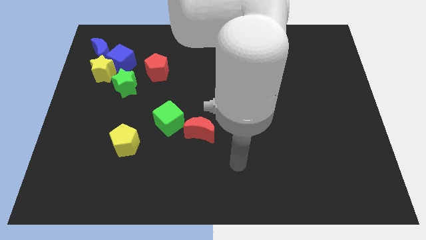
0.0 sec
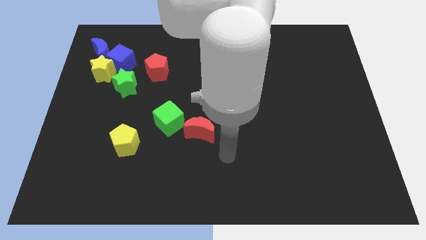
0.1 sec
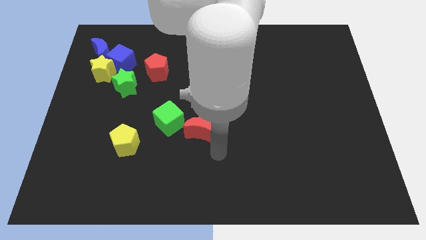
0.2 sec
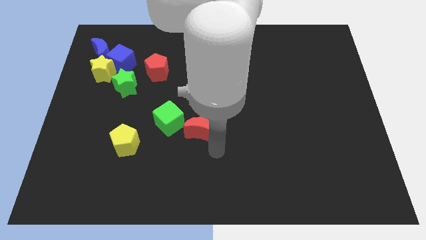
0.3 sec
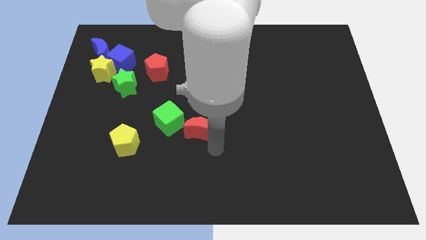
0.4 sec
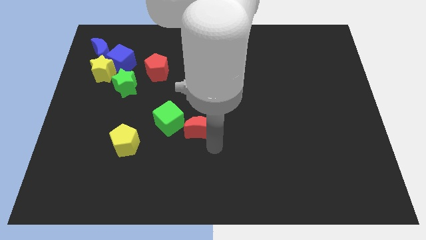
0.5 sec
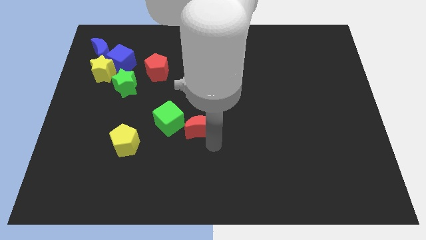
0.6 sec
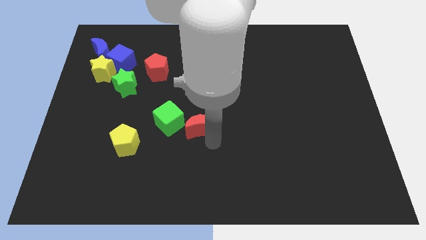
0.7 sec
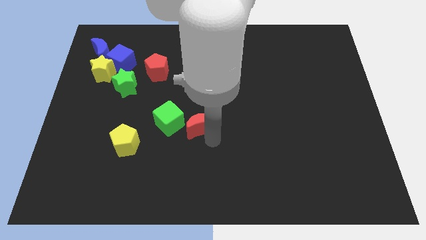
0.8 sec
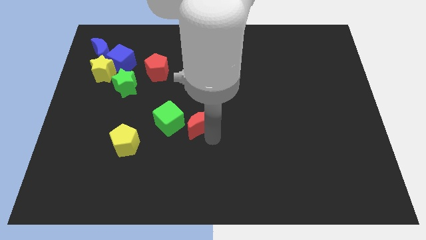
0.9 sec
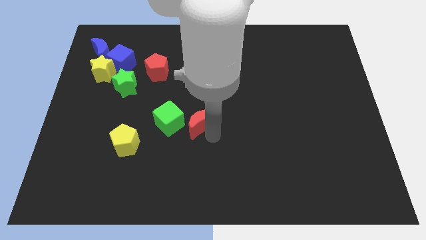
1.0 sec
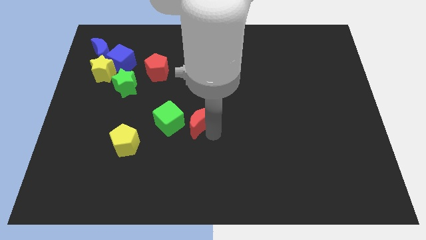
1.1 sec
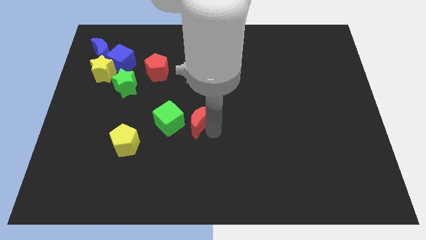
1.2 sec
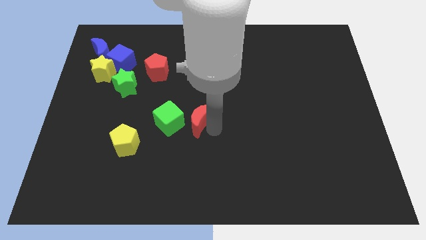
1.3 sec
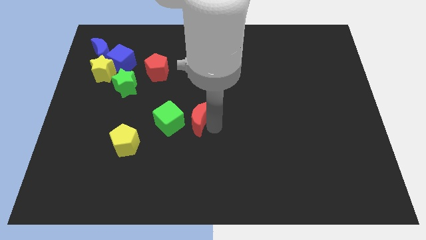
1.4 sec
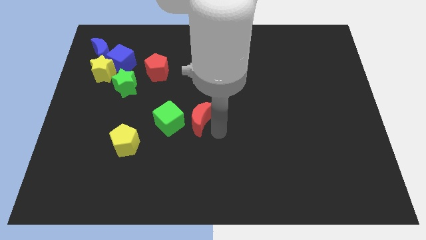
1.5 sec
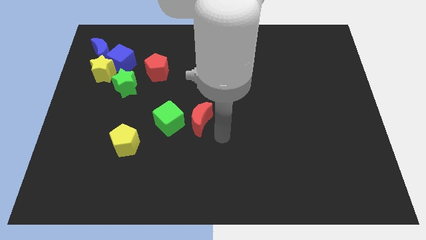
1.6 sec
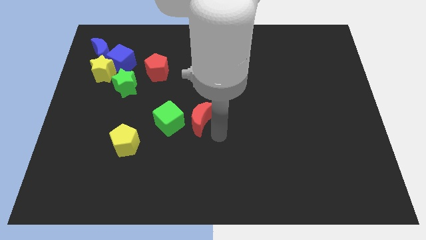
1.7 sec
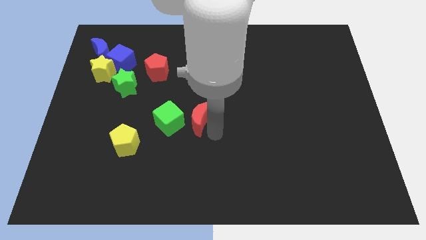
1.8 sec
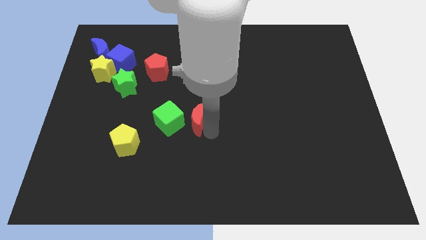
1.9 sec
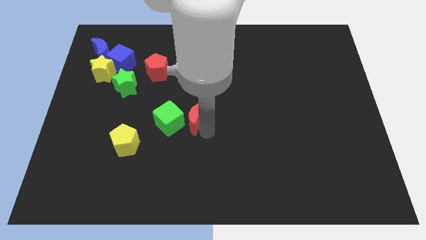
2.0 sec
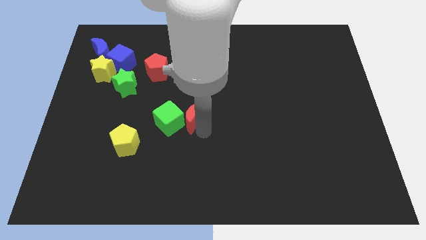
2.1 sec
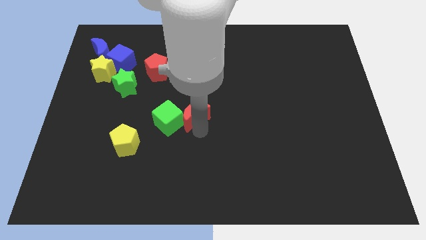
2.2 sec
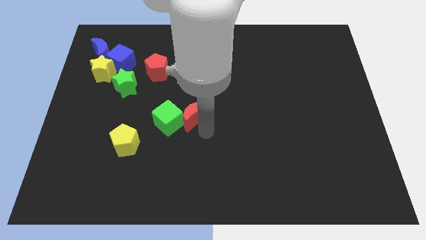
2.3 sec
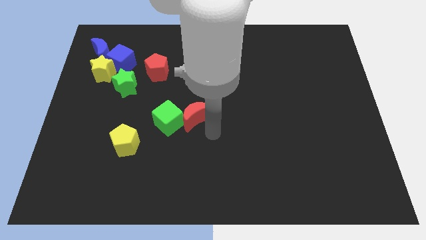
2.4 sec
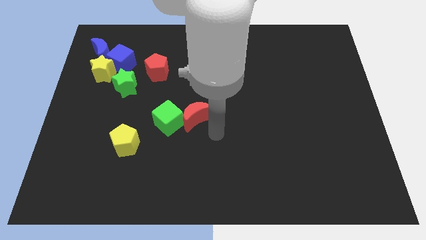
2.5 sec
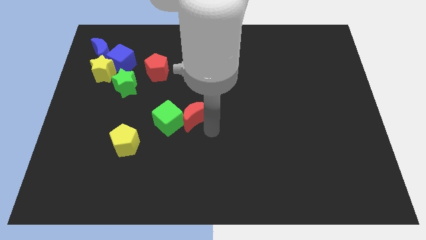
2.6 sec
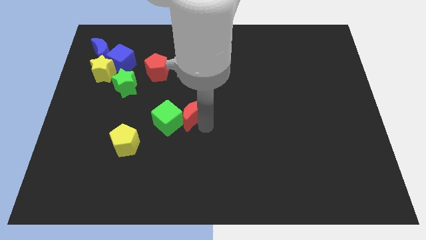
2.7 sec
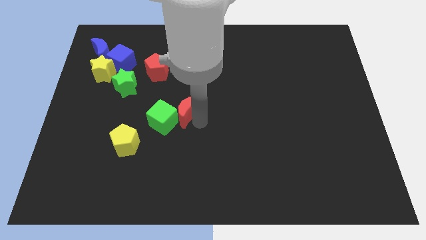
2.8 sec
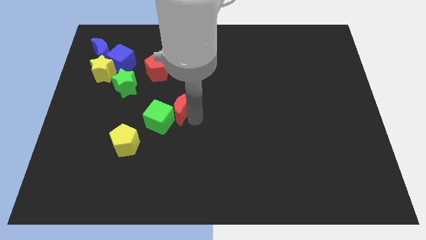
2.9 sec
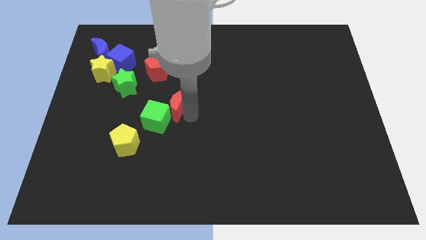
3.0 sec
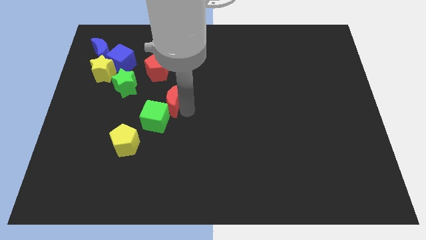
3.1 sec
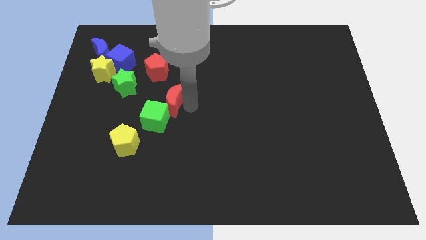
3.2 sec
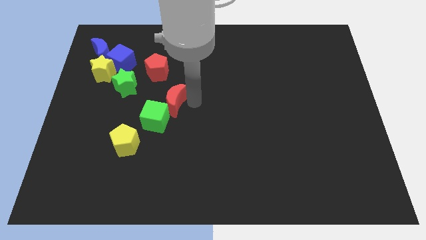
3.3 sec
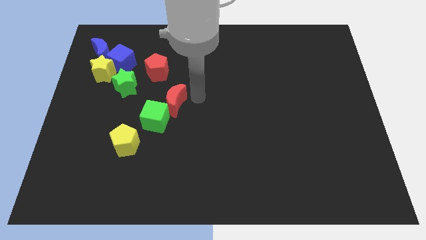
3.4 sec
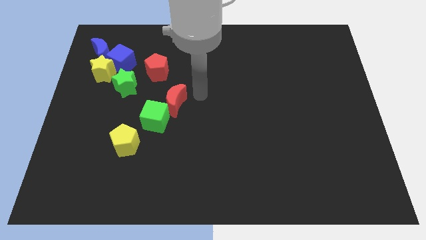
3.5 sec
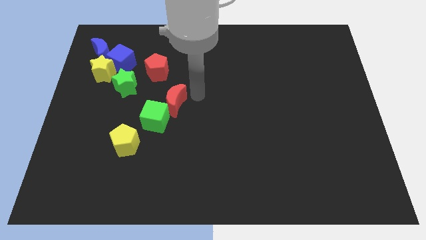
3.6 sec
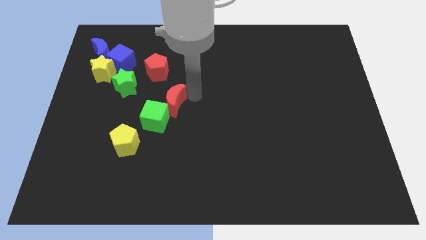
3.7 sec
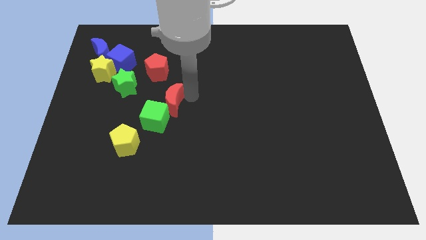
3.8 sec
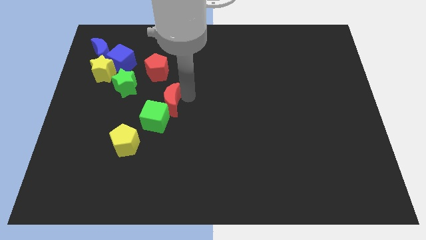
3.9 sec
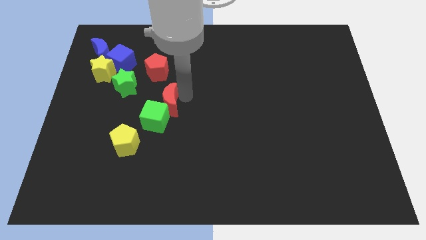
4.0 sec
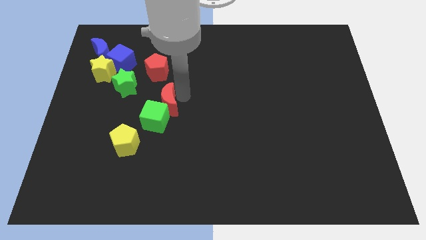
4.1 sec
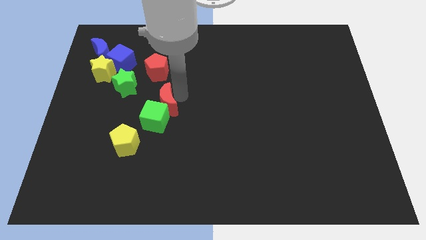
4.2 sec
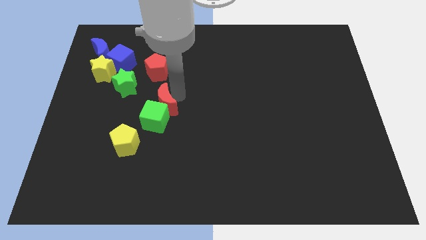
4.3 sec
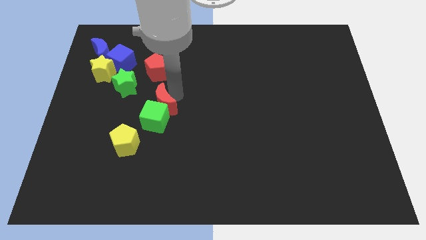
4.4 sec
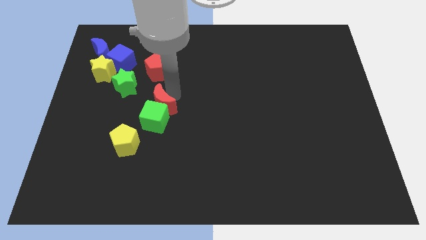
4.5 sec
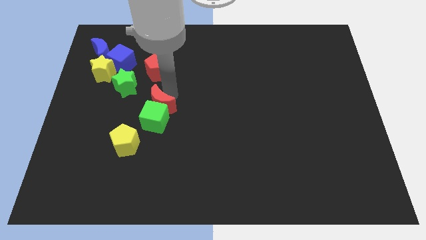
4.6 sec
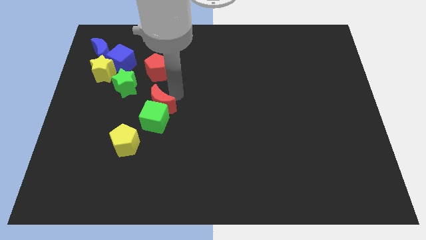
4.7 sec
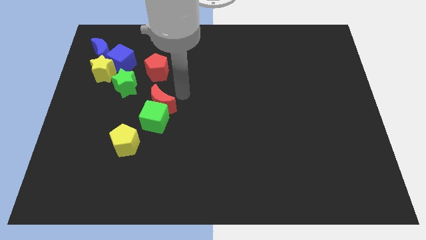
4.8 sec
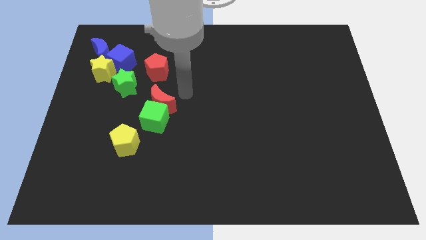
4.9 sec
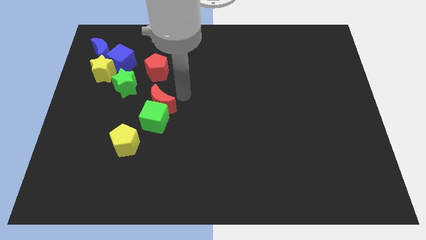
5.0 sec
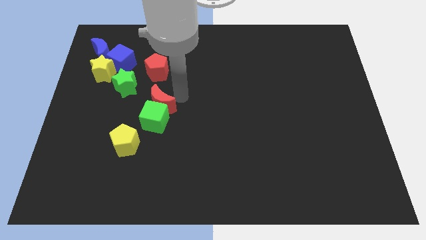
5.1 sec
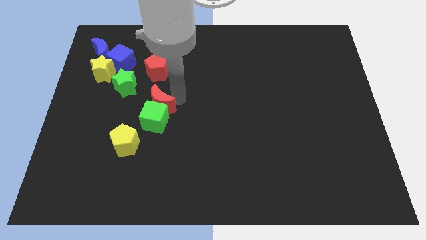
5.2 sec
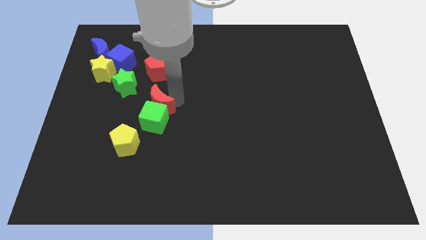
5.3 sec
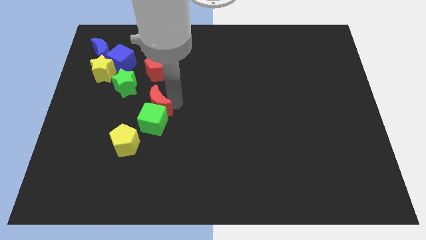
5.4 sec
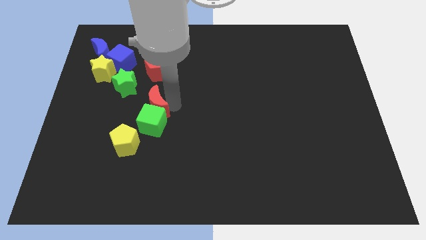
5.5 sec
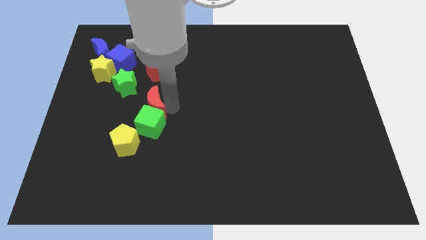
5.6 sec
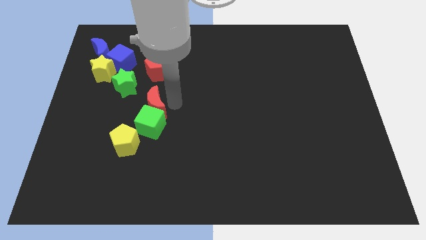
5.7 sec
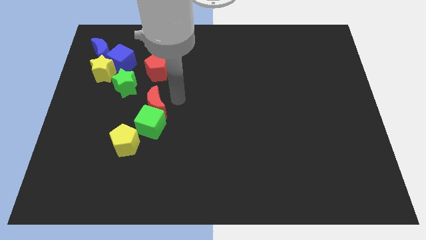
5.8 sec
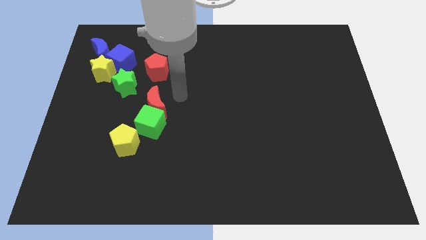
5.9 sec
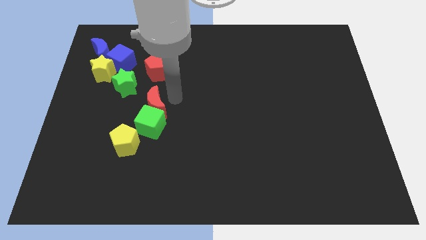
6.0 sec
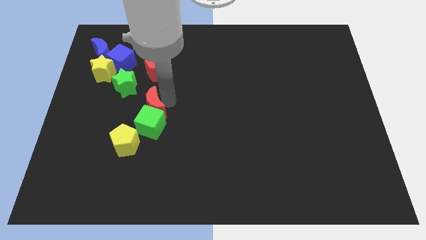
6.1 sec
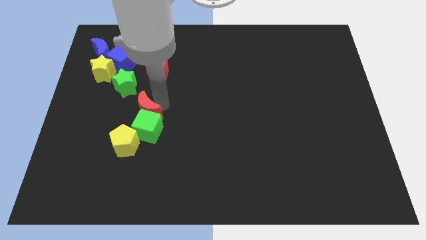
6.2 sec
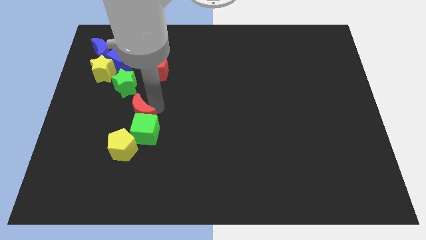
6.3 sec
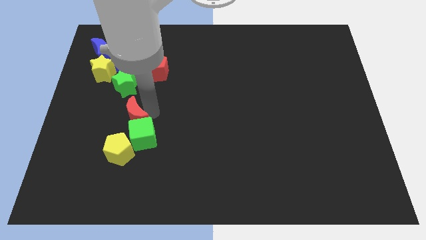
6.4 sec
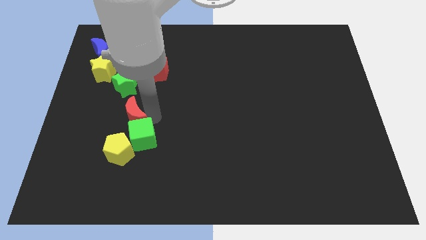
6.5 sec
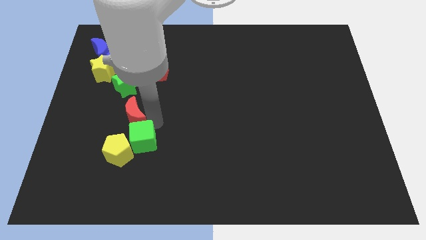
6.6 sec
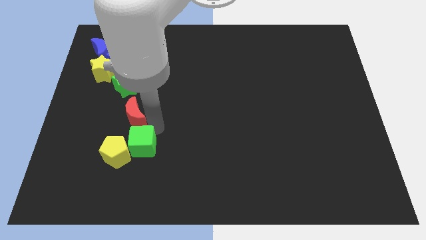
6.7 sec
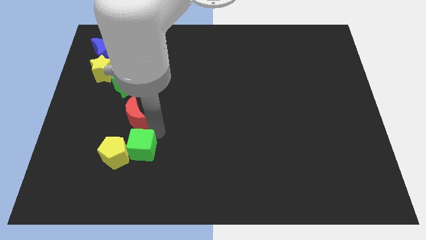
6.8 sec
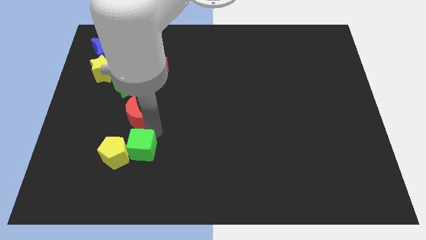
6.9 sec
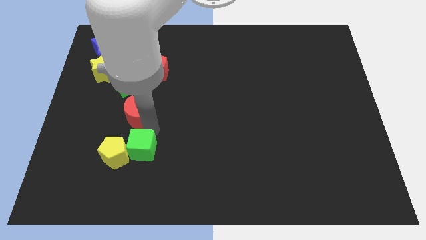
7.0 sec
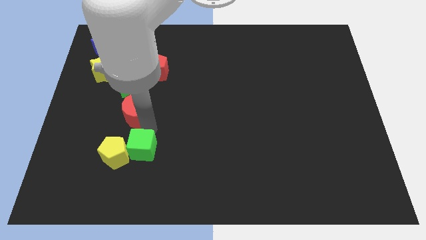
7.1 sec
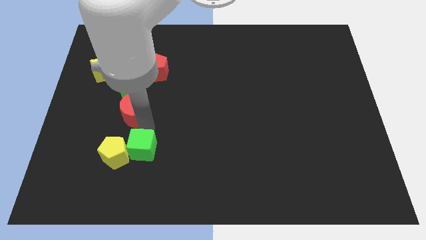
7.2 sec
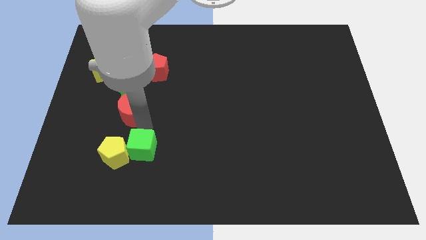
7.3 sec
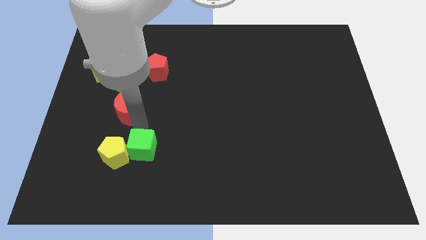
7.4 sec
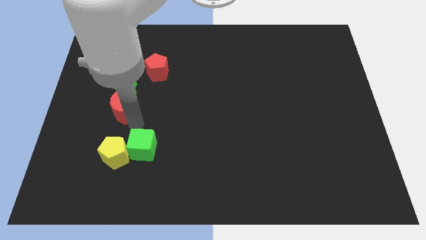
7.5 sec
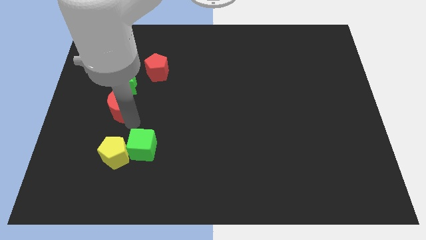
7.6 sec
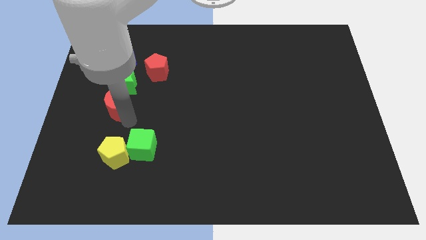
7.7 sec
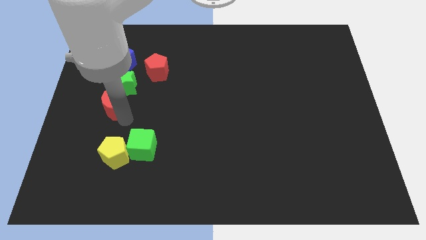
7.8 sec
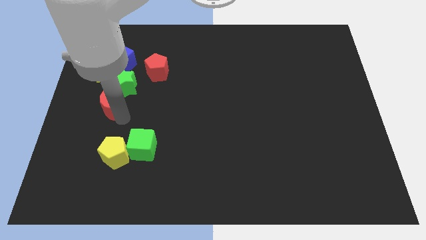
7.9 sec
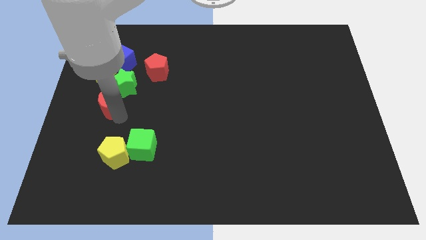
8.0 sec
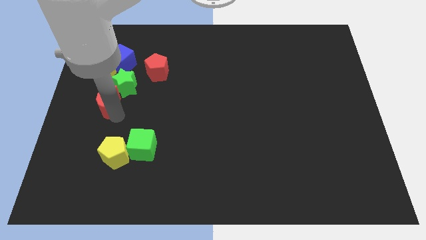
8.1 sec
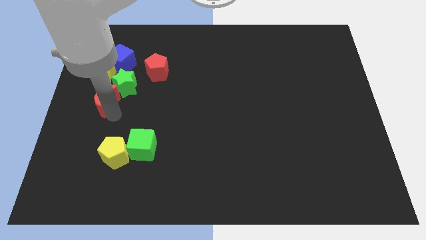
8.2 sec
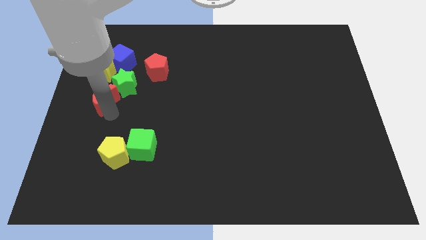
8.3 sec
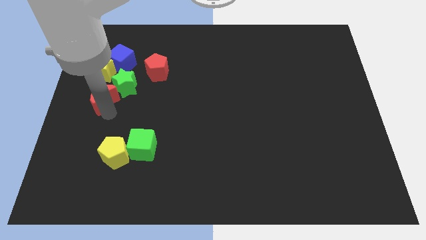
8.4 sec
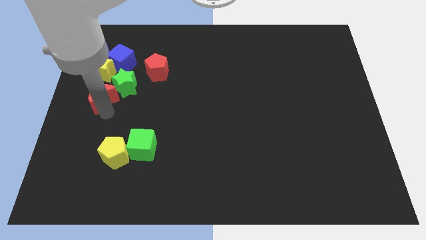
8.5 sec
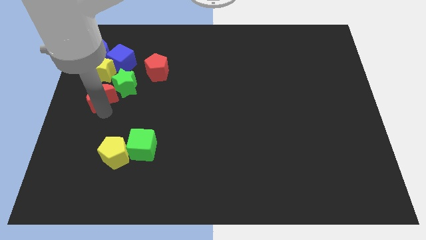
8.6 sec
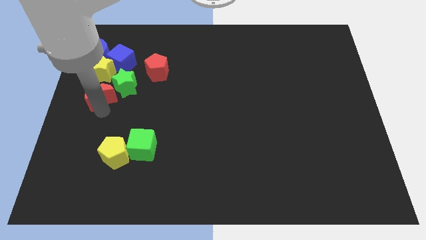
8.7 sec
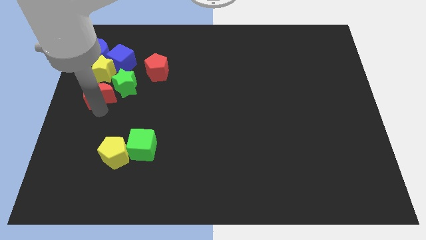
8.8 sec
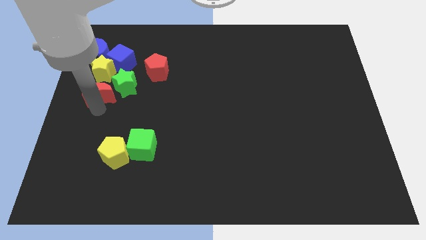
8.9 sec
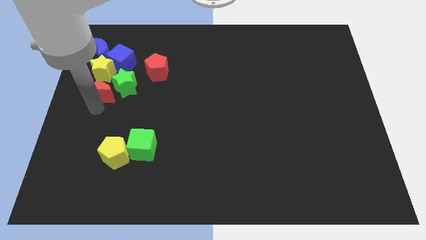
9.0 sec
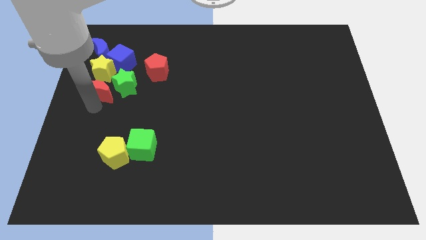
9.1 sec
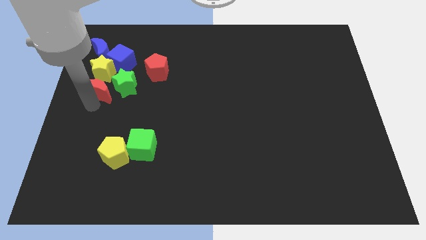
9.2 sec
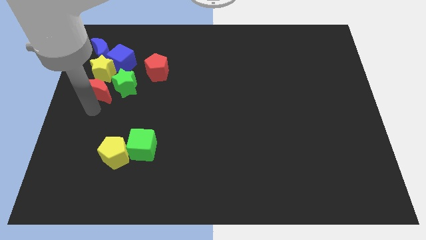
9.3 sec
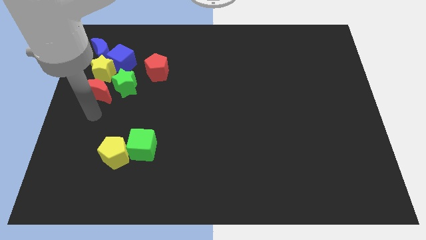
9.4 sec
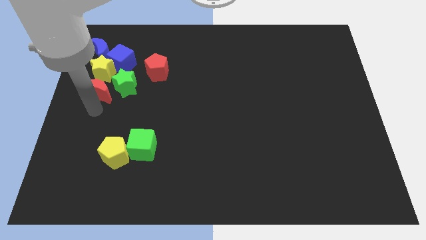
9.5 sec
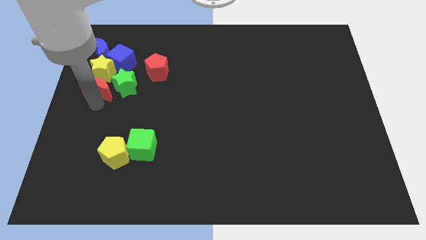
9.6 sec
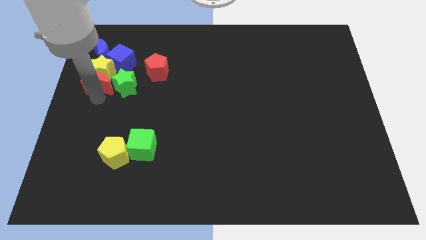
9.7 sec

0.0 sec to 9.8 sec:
push the red moon towards the yellow star
